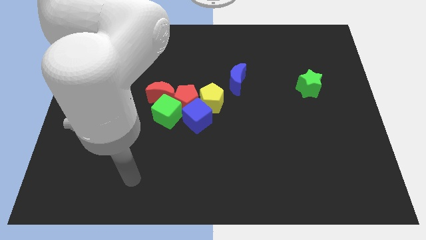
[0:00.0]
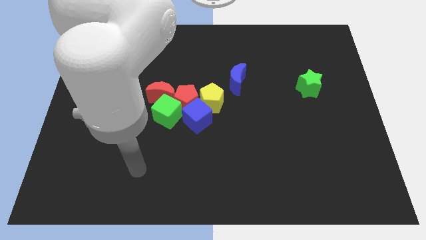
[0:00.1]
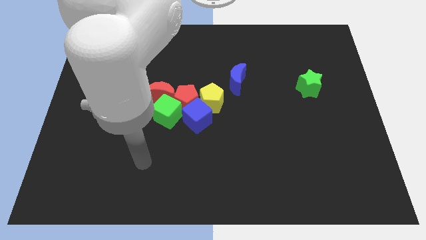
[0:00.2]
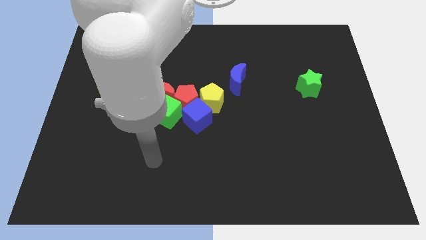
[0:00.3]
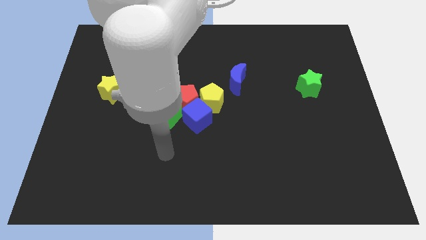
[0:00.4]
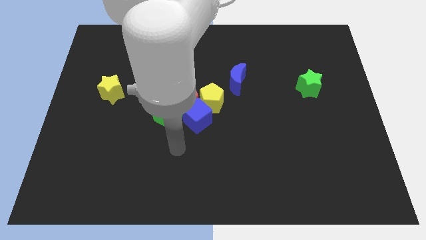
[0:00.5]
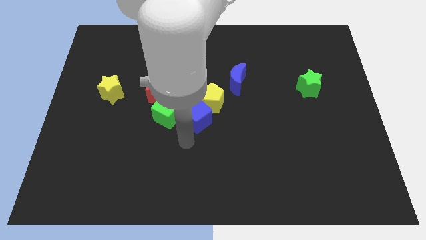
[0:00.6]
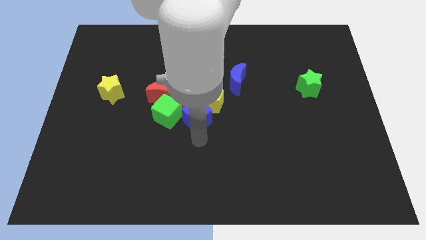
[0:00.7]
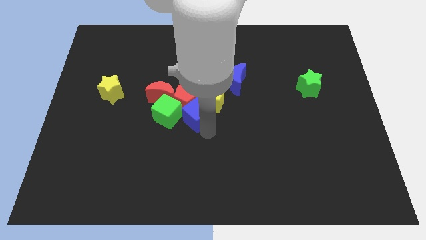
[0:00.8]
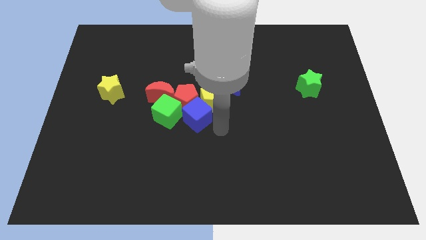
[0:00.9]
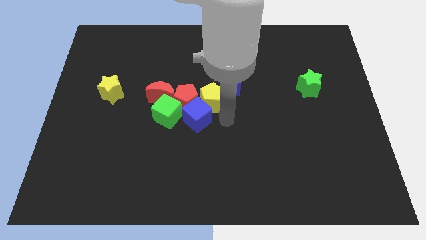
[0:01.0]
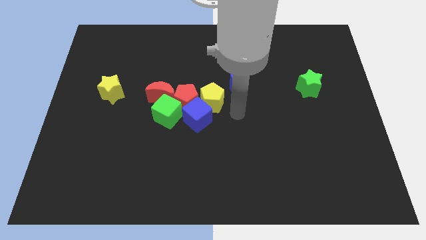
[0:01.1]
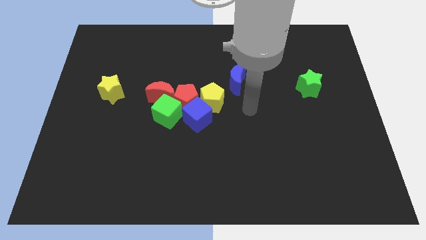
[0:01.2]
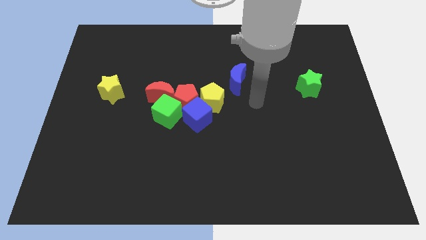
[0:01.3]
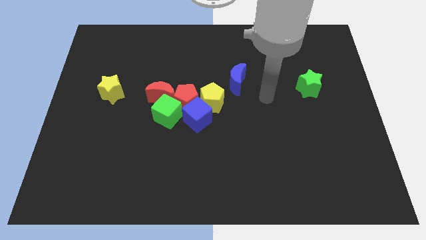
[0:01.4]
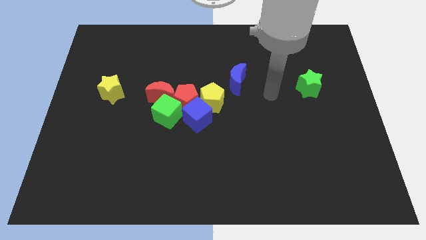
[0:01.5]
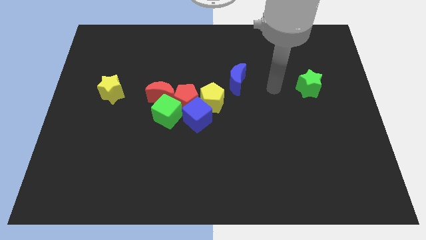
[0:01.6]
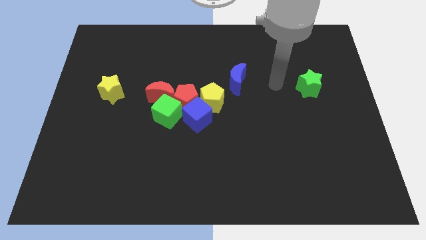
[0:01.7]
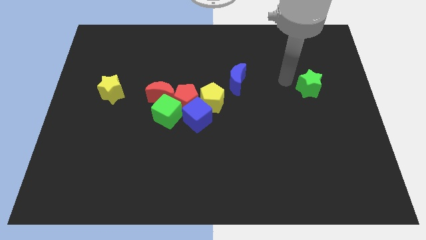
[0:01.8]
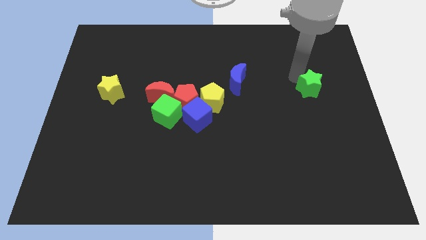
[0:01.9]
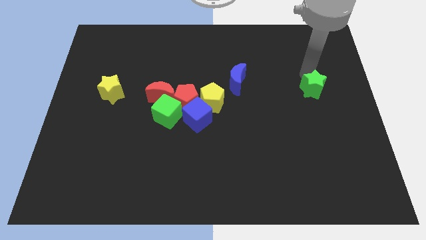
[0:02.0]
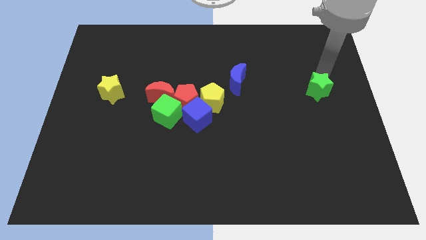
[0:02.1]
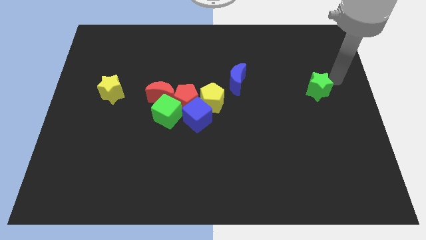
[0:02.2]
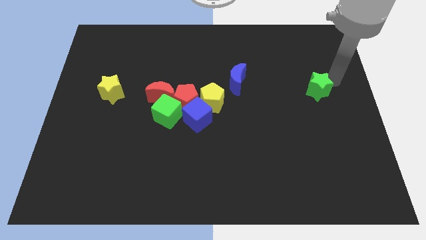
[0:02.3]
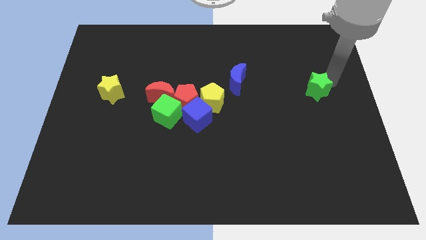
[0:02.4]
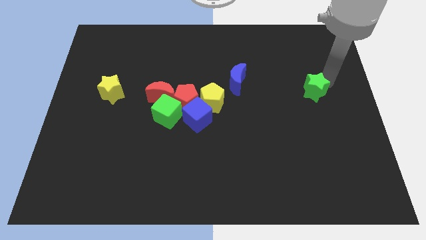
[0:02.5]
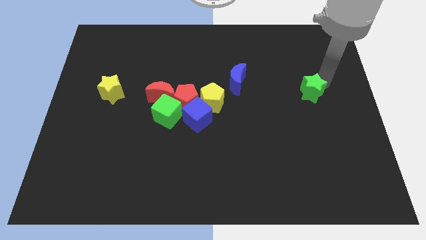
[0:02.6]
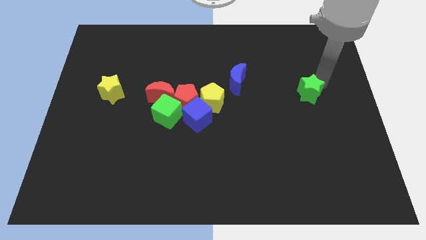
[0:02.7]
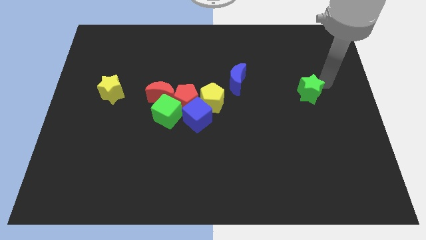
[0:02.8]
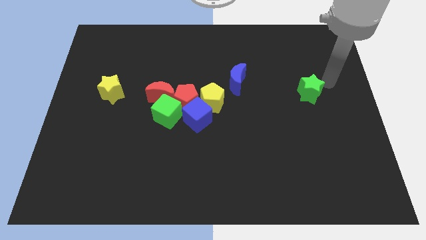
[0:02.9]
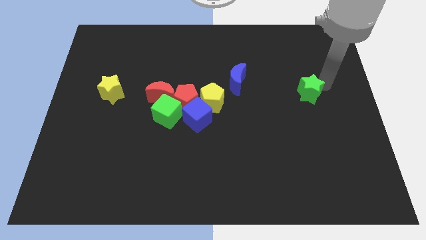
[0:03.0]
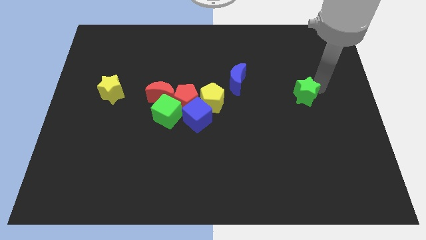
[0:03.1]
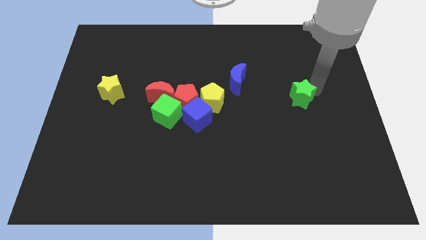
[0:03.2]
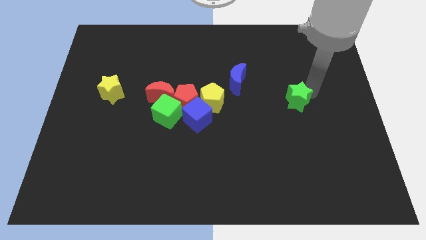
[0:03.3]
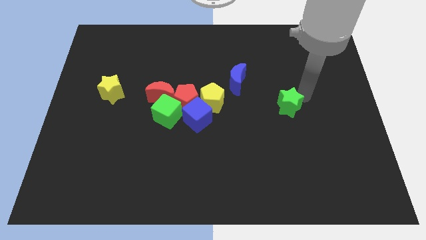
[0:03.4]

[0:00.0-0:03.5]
slightly move the green star diagonally down and to the left

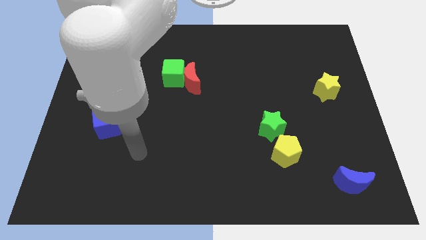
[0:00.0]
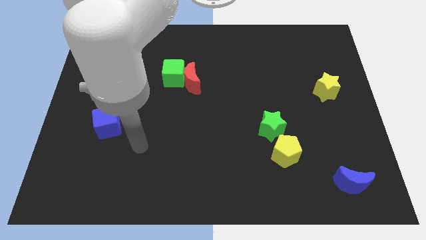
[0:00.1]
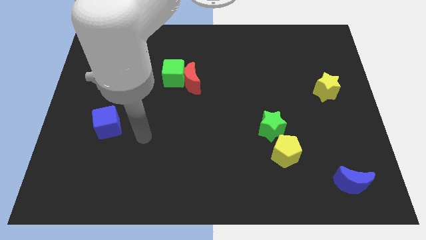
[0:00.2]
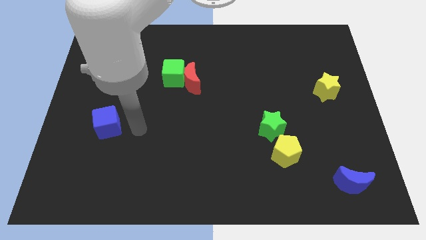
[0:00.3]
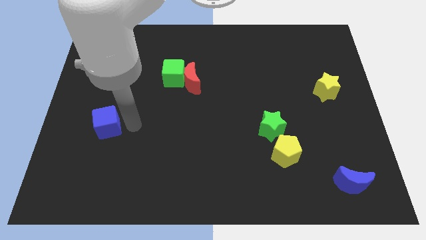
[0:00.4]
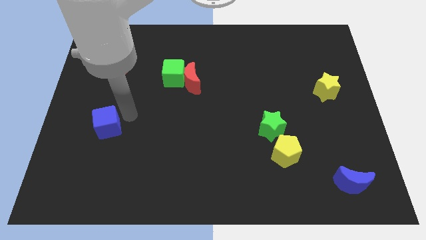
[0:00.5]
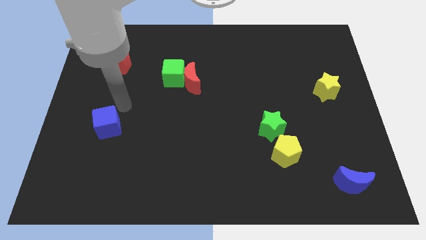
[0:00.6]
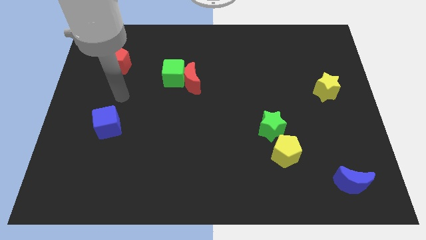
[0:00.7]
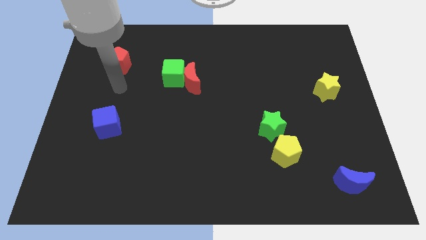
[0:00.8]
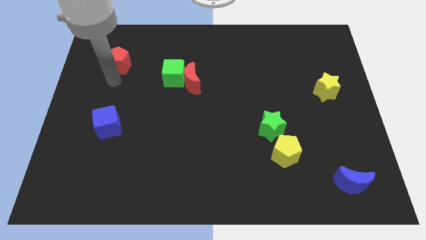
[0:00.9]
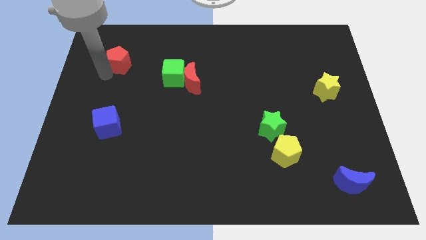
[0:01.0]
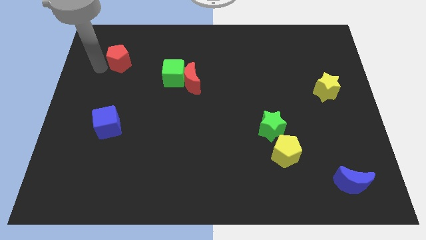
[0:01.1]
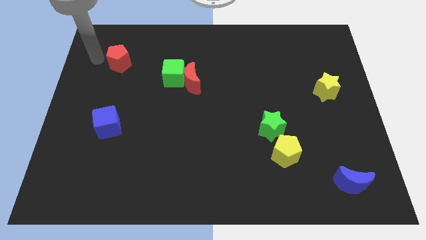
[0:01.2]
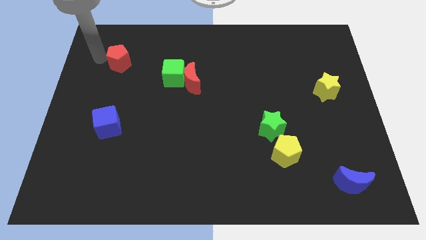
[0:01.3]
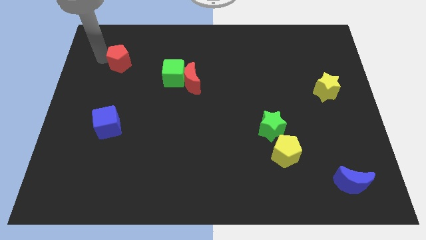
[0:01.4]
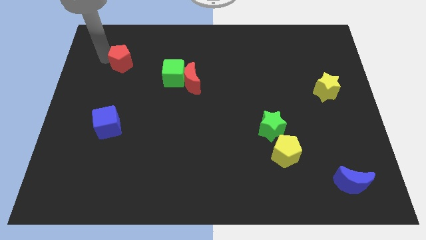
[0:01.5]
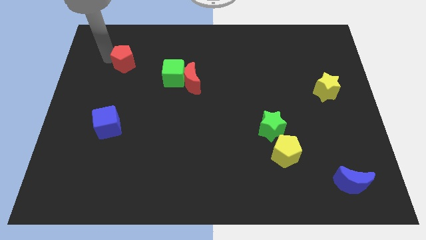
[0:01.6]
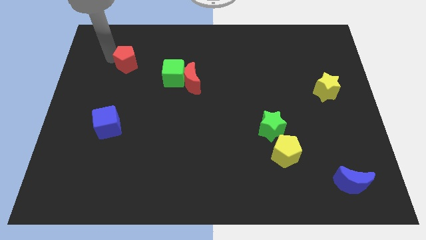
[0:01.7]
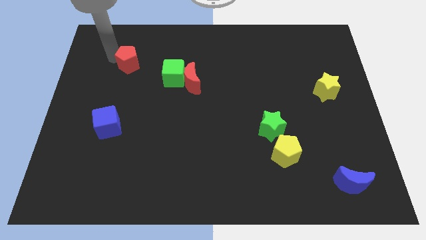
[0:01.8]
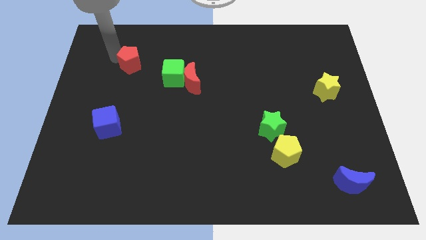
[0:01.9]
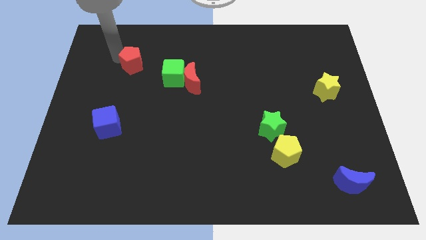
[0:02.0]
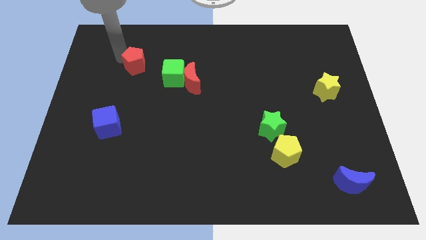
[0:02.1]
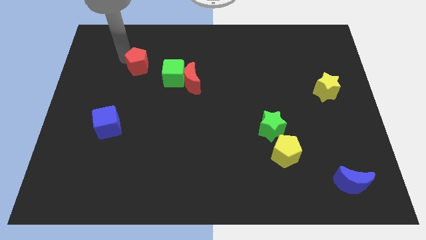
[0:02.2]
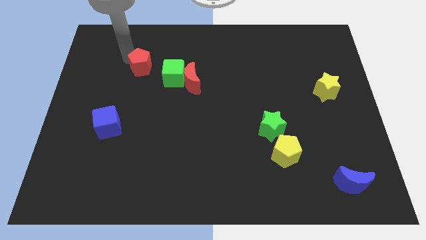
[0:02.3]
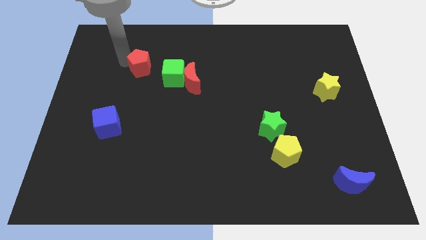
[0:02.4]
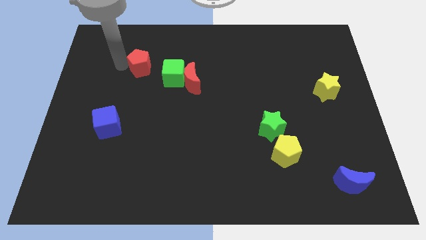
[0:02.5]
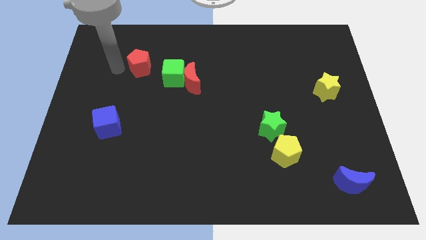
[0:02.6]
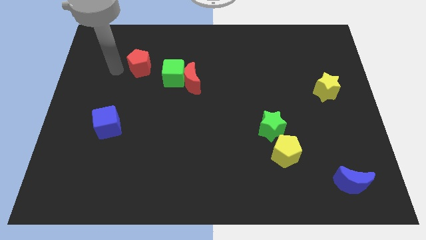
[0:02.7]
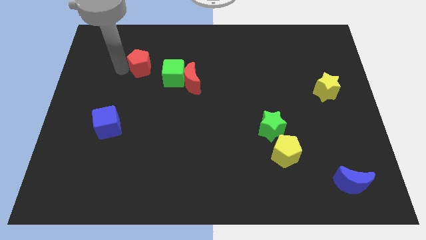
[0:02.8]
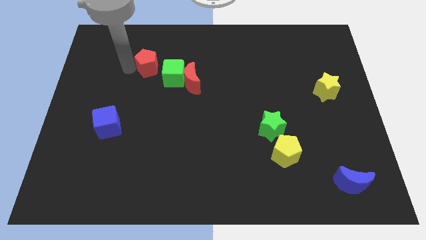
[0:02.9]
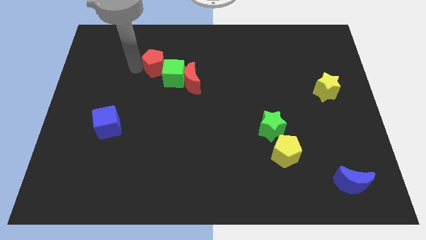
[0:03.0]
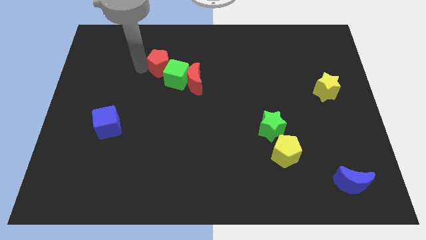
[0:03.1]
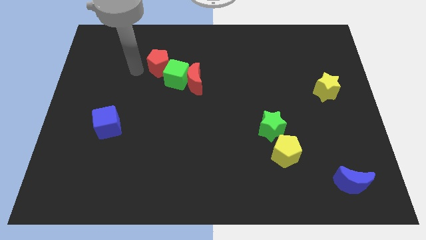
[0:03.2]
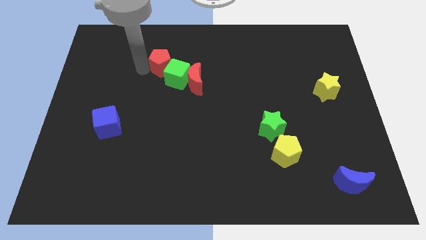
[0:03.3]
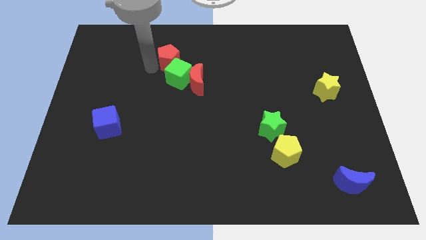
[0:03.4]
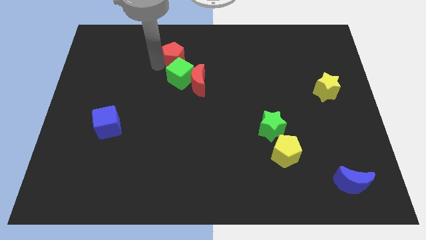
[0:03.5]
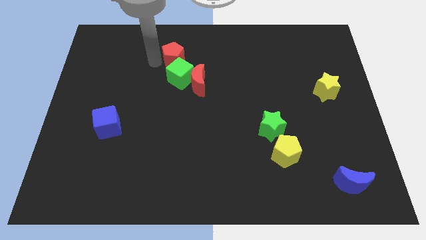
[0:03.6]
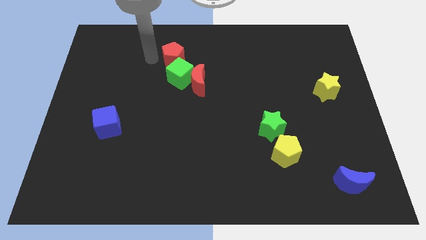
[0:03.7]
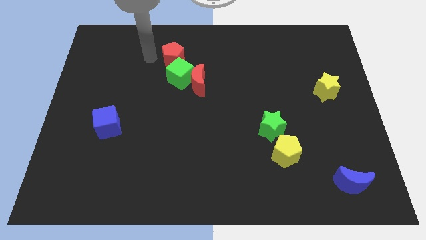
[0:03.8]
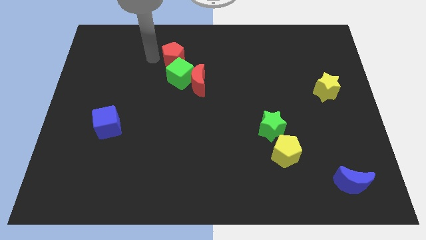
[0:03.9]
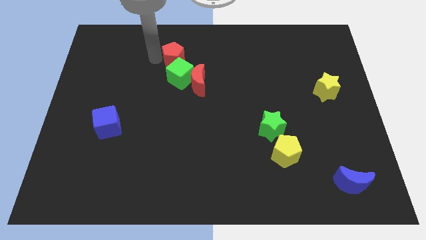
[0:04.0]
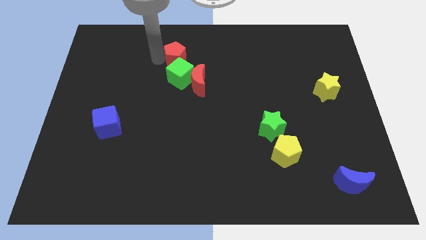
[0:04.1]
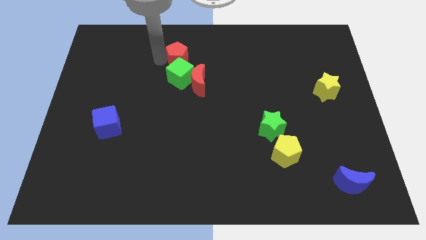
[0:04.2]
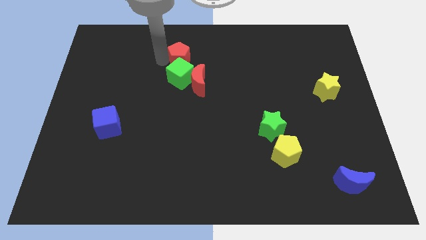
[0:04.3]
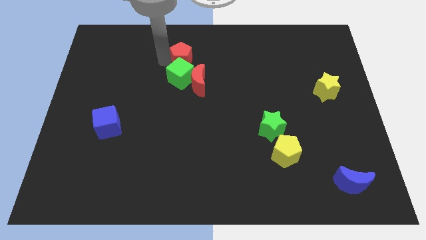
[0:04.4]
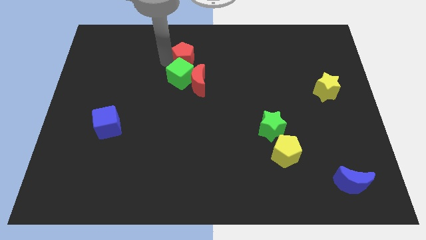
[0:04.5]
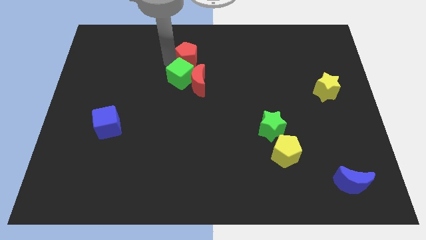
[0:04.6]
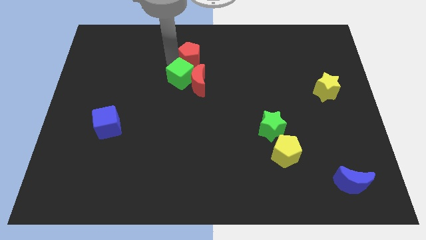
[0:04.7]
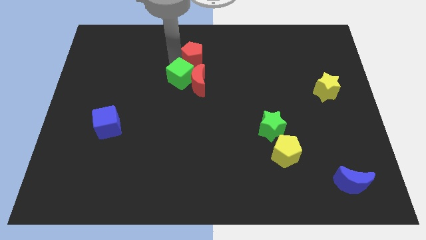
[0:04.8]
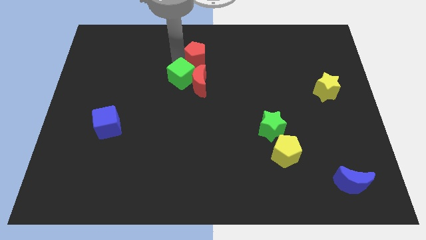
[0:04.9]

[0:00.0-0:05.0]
move the red pentagon to the right
